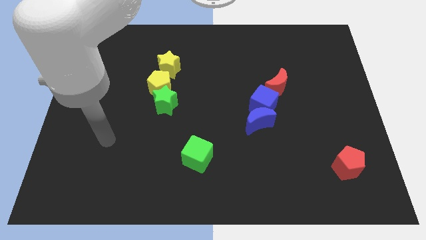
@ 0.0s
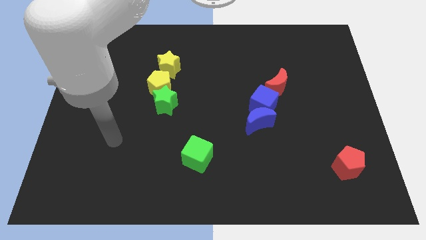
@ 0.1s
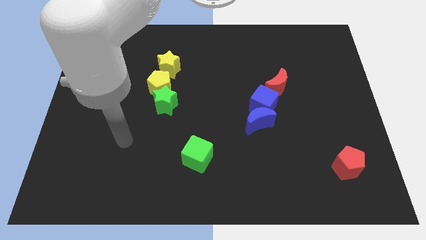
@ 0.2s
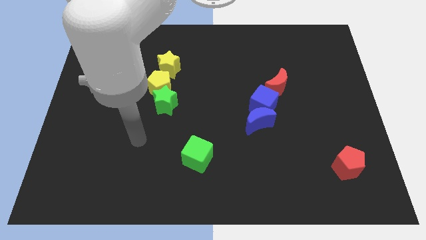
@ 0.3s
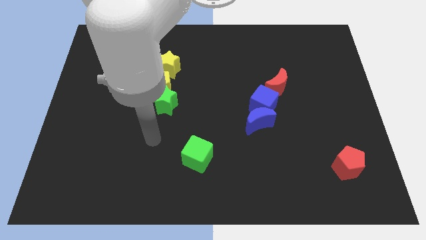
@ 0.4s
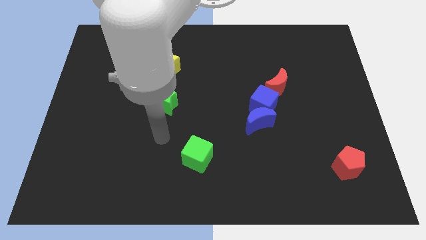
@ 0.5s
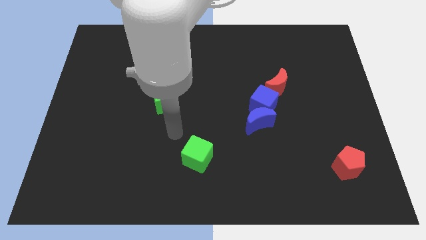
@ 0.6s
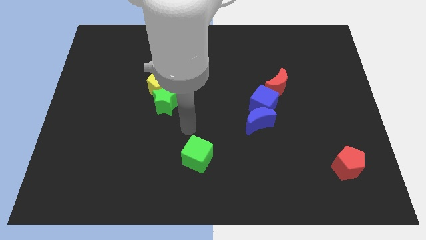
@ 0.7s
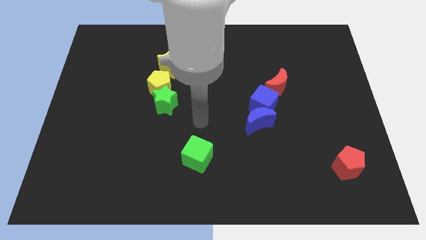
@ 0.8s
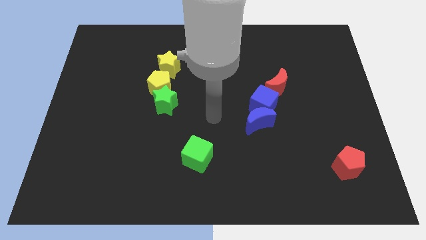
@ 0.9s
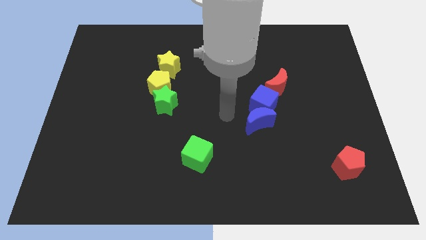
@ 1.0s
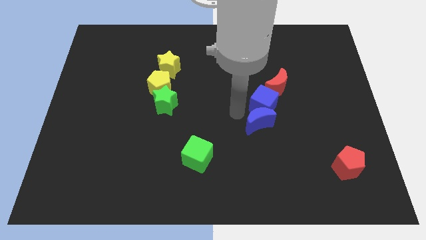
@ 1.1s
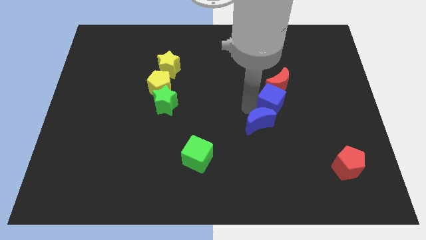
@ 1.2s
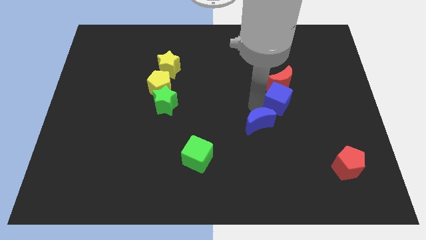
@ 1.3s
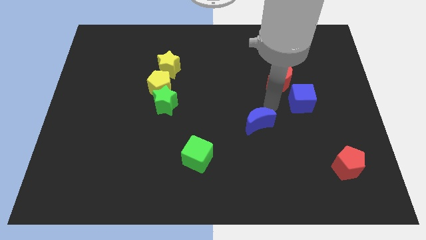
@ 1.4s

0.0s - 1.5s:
move the blue moon away from the blue cube

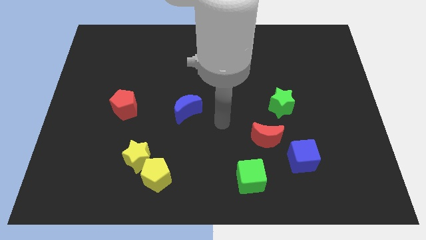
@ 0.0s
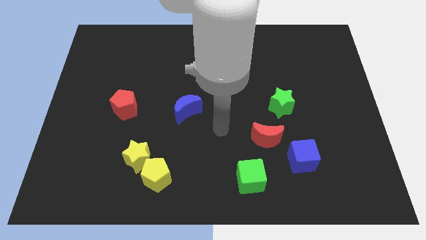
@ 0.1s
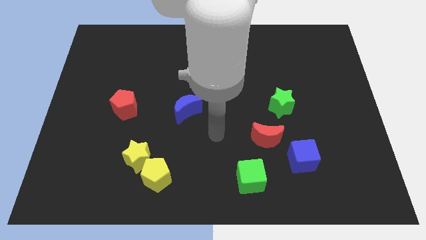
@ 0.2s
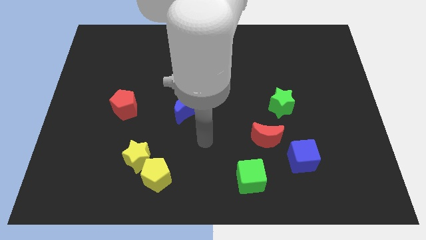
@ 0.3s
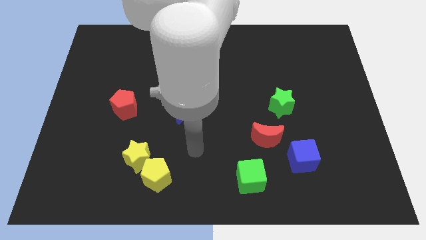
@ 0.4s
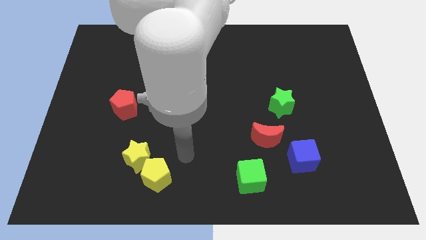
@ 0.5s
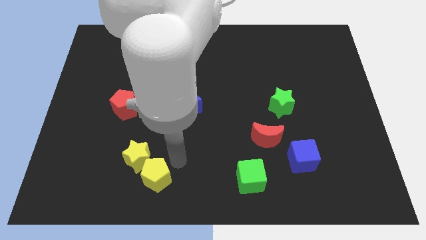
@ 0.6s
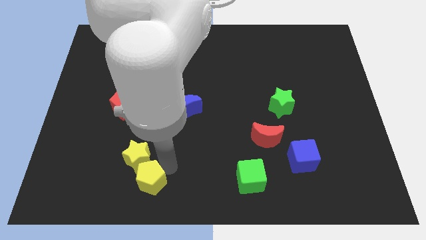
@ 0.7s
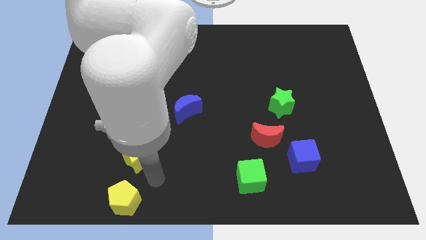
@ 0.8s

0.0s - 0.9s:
move the yellow star away from the yellow pentagon

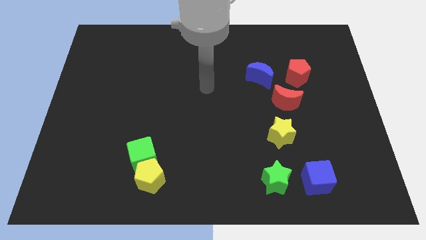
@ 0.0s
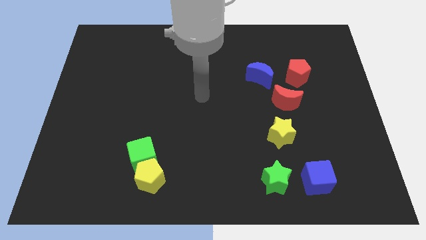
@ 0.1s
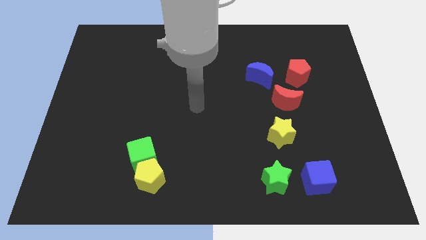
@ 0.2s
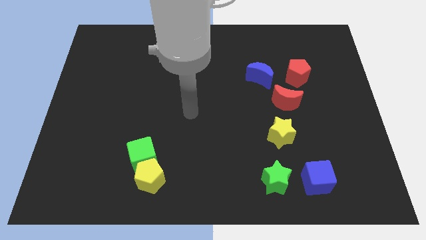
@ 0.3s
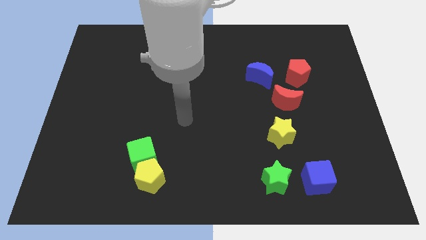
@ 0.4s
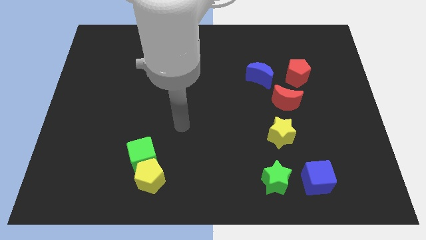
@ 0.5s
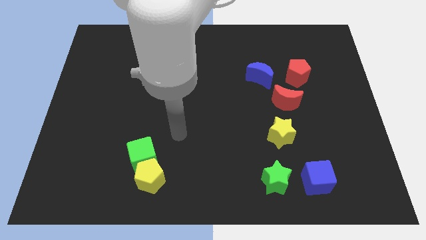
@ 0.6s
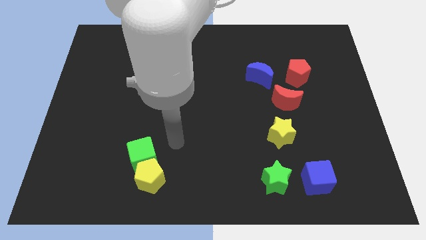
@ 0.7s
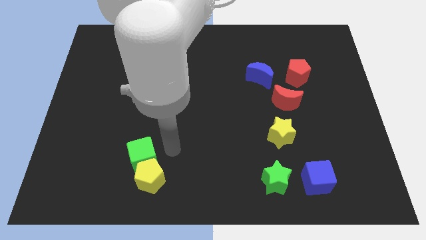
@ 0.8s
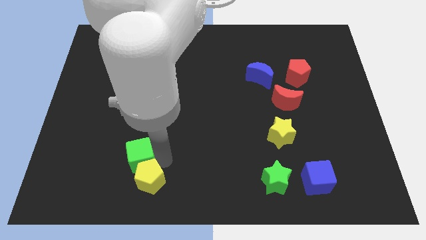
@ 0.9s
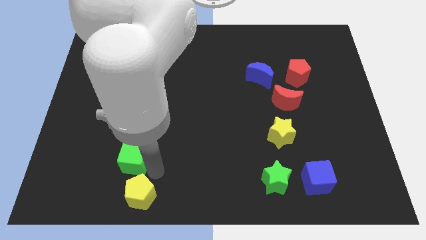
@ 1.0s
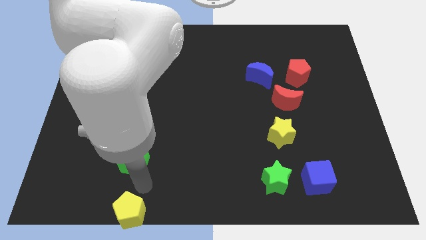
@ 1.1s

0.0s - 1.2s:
separate the green cube from the yellow pentagon

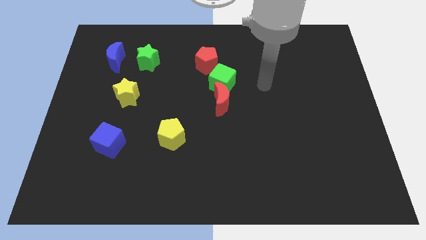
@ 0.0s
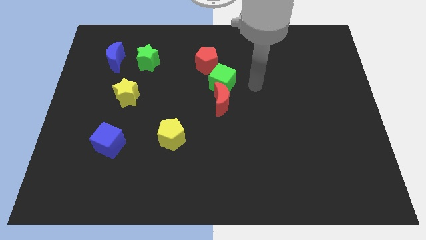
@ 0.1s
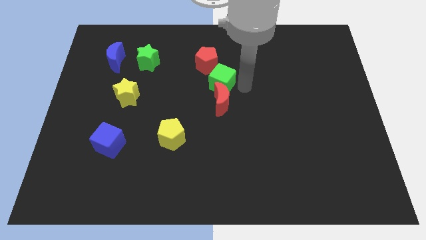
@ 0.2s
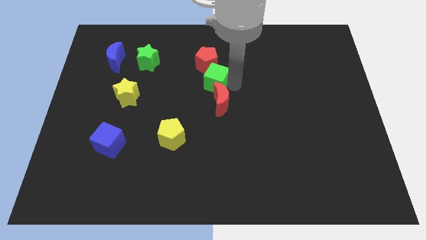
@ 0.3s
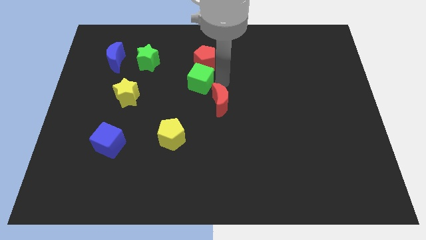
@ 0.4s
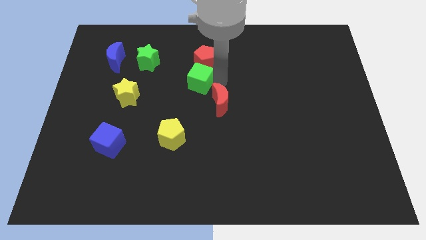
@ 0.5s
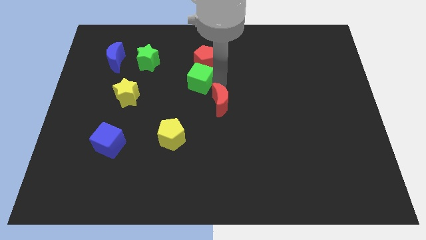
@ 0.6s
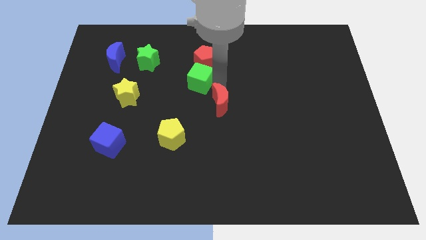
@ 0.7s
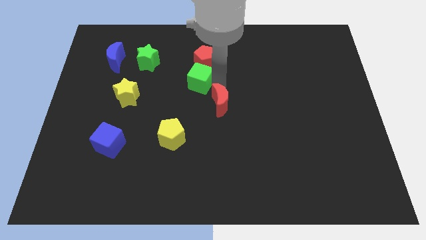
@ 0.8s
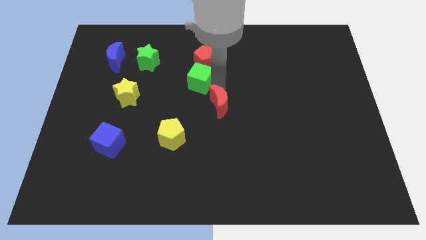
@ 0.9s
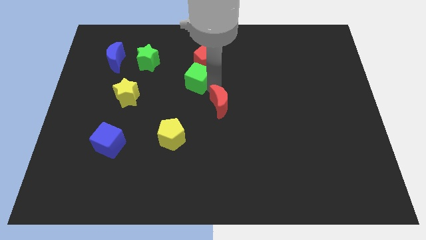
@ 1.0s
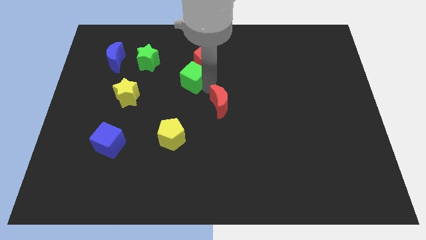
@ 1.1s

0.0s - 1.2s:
separate the red moon from the green cube

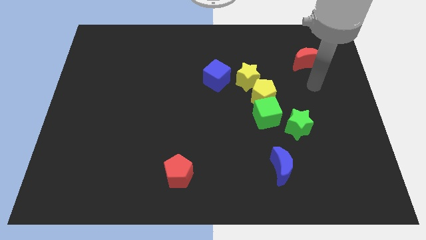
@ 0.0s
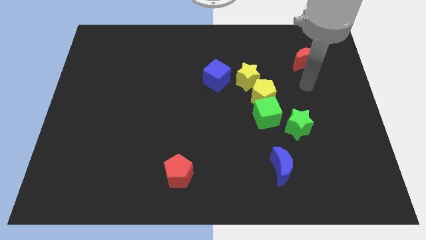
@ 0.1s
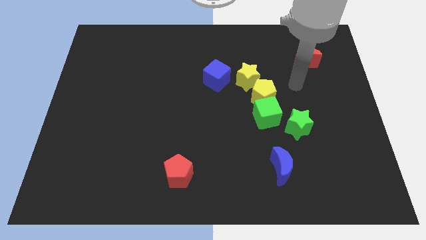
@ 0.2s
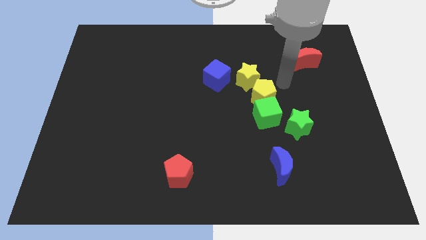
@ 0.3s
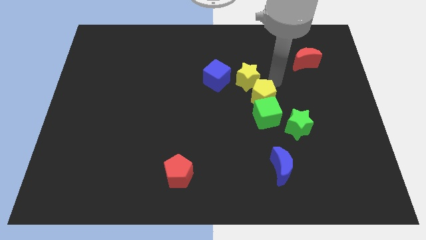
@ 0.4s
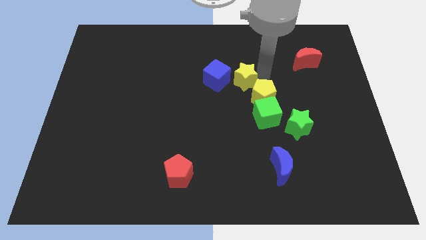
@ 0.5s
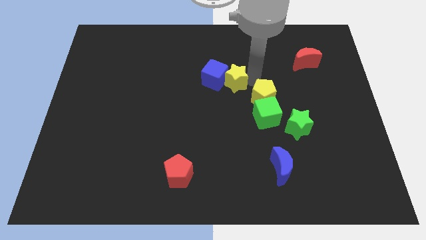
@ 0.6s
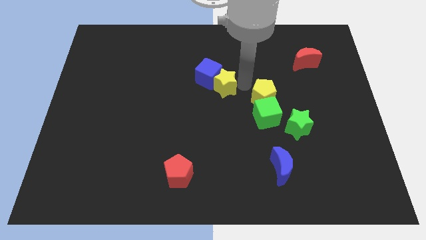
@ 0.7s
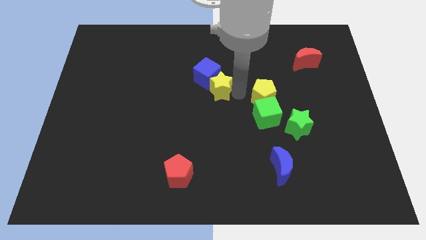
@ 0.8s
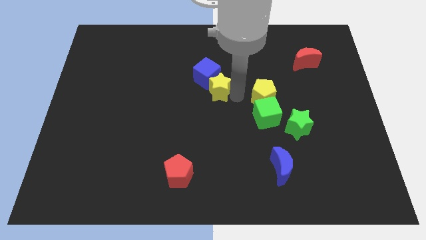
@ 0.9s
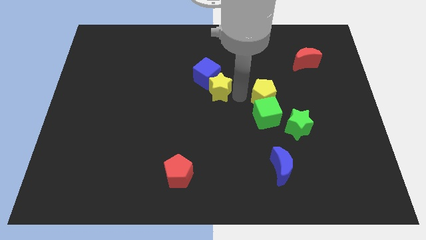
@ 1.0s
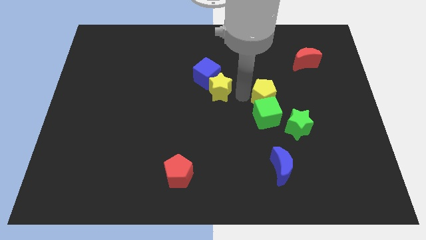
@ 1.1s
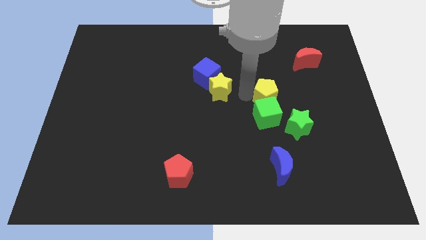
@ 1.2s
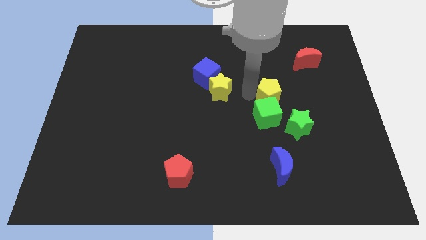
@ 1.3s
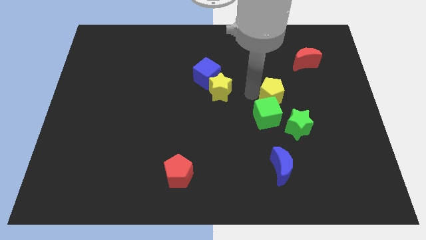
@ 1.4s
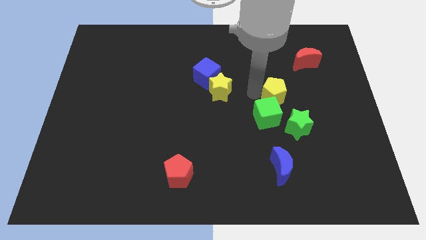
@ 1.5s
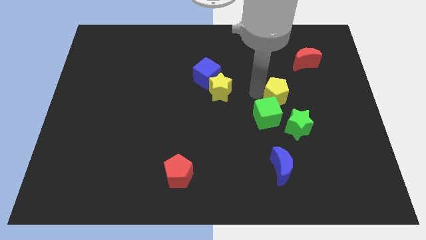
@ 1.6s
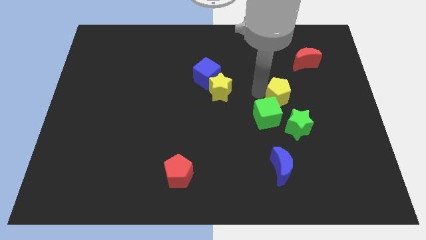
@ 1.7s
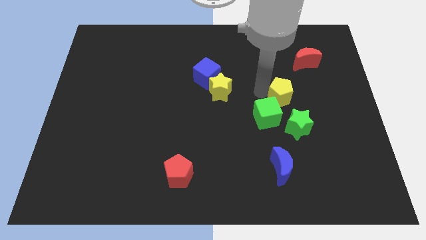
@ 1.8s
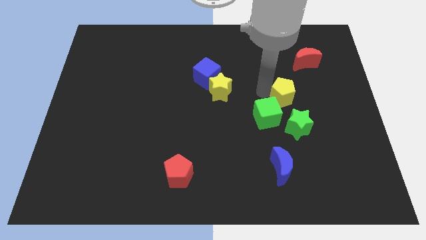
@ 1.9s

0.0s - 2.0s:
pull the yellow pentagon apart from the green cube and yellow star

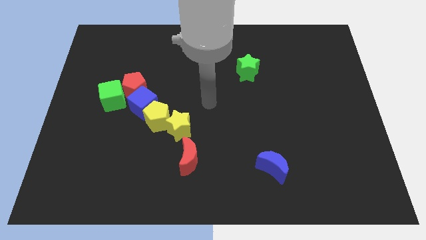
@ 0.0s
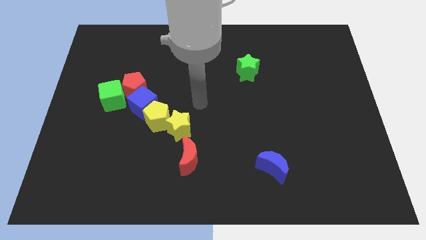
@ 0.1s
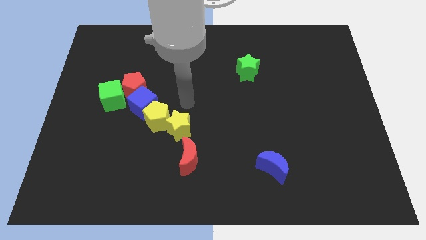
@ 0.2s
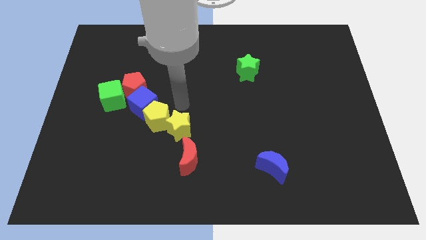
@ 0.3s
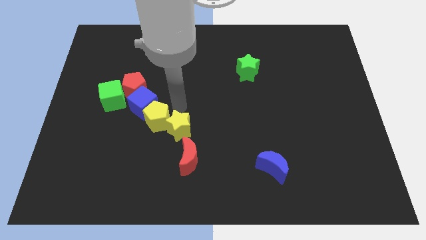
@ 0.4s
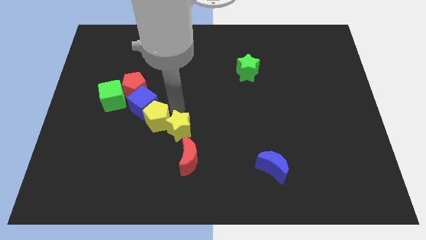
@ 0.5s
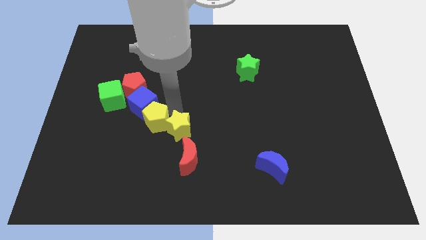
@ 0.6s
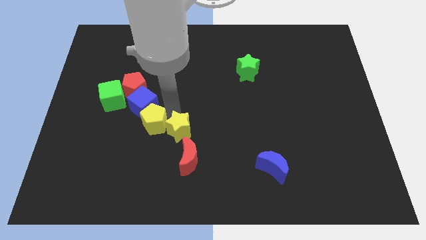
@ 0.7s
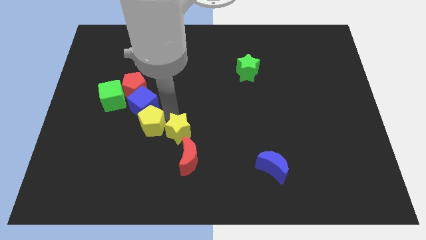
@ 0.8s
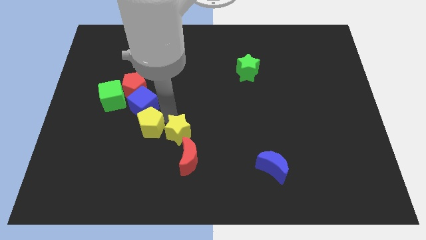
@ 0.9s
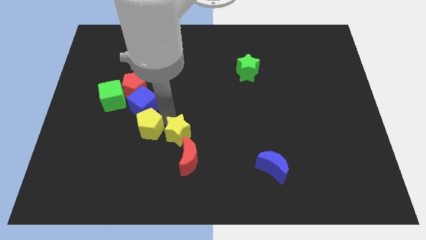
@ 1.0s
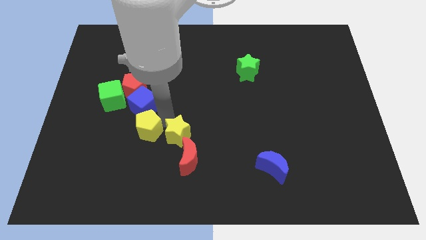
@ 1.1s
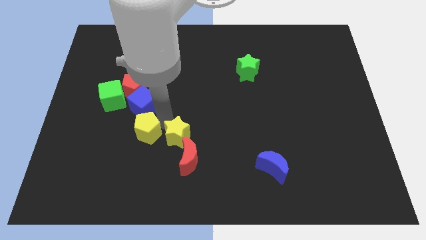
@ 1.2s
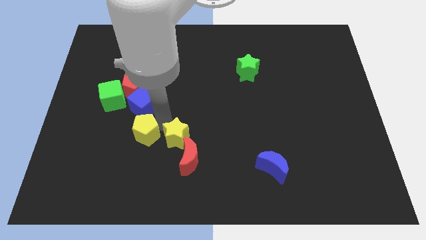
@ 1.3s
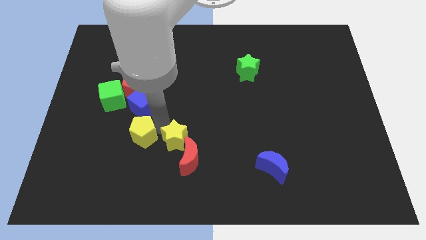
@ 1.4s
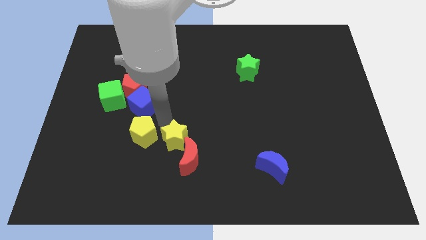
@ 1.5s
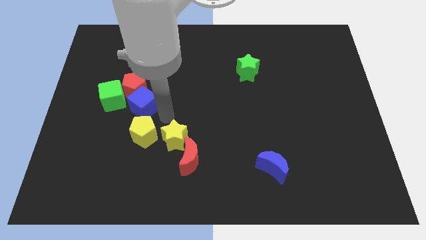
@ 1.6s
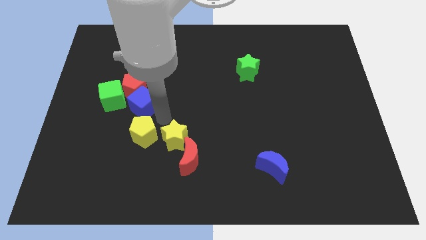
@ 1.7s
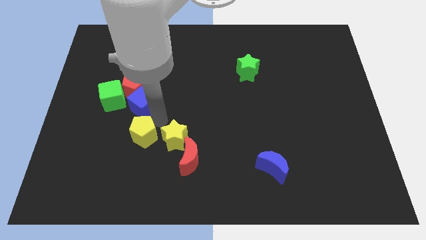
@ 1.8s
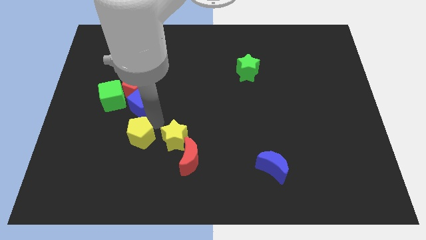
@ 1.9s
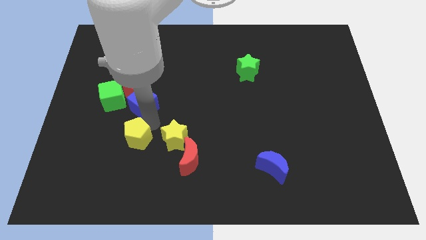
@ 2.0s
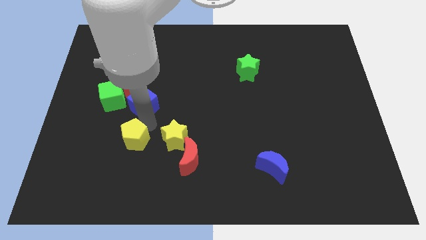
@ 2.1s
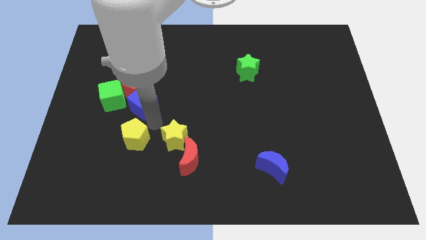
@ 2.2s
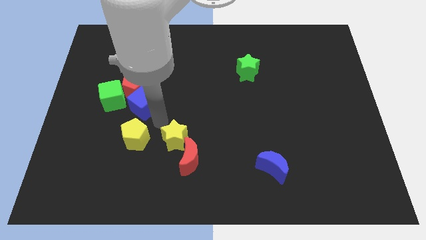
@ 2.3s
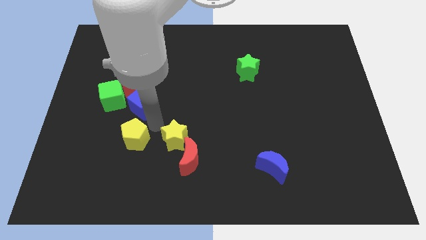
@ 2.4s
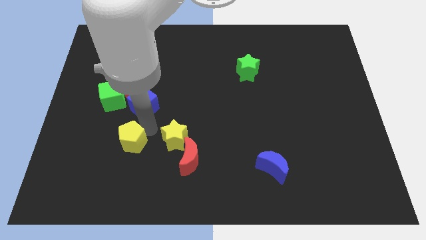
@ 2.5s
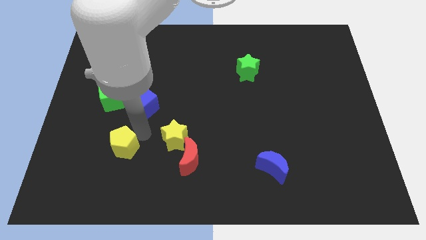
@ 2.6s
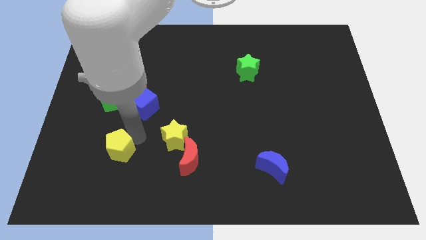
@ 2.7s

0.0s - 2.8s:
move the yellow pentagon away from the blue cube and yellow star
